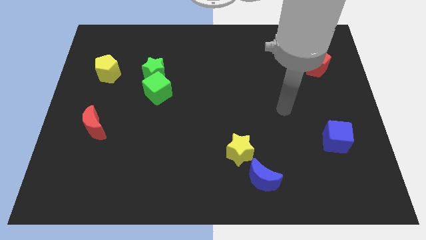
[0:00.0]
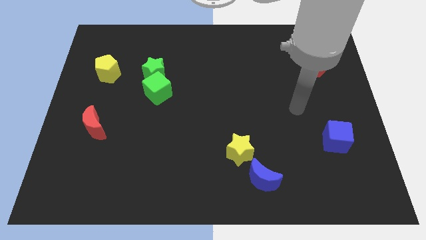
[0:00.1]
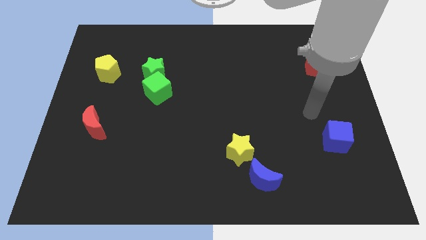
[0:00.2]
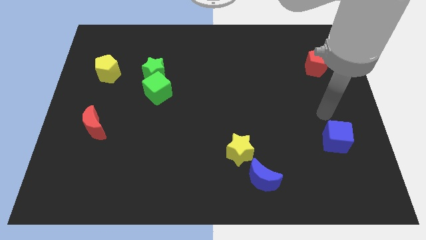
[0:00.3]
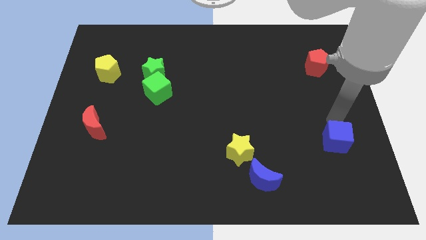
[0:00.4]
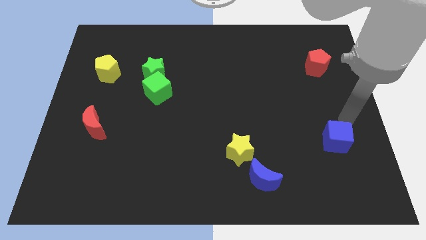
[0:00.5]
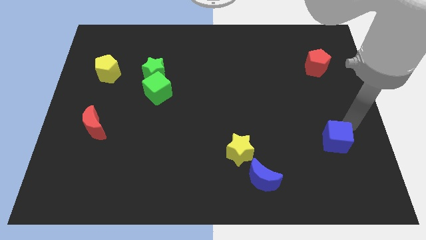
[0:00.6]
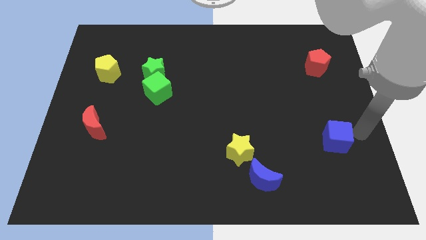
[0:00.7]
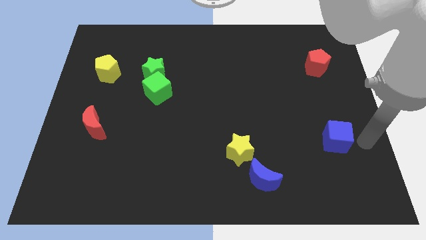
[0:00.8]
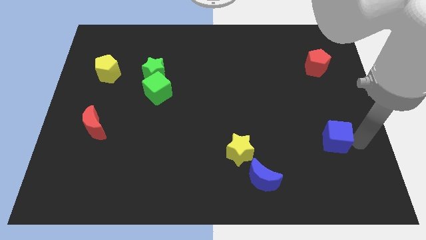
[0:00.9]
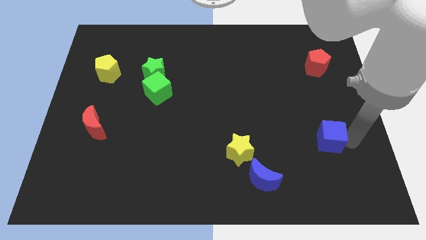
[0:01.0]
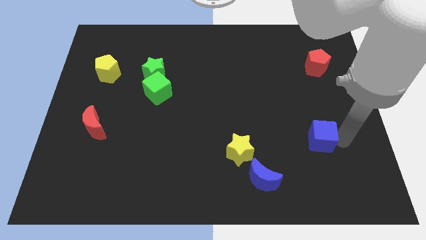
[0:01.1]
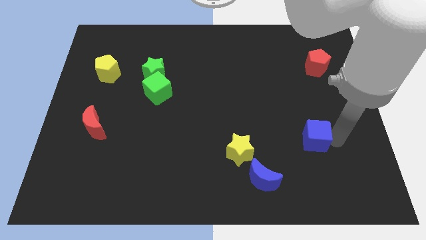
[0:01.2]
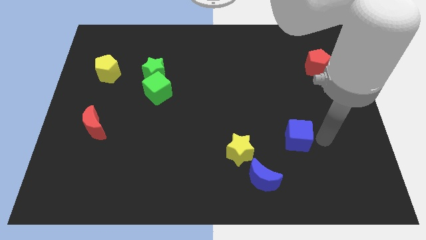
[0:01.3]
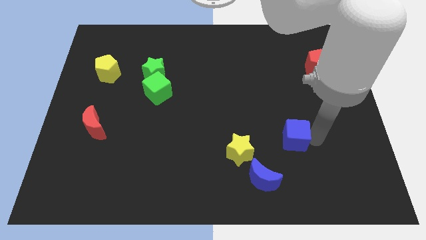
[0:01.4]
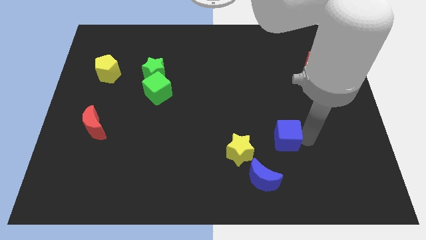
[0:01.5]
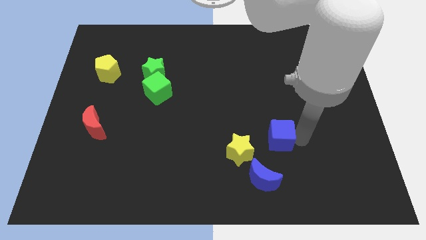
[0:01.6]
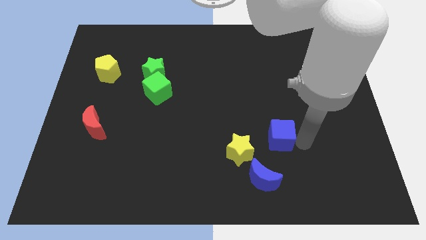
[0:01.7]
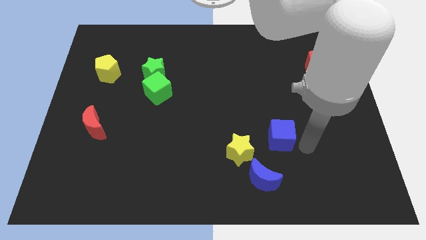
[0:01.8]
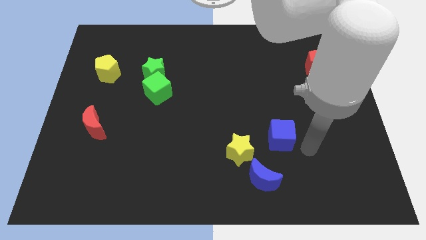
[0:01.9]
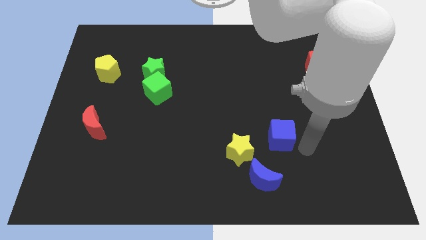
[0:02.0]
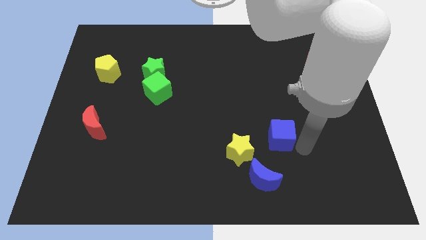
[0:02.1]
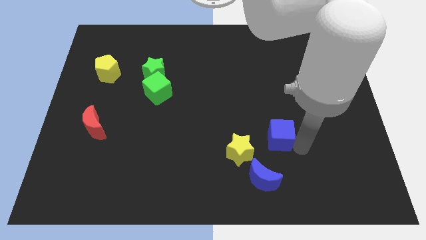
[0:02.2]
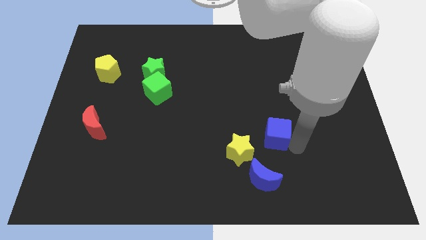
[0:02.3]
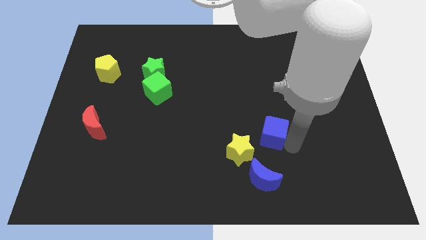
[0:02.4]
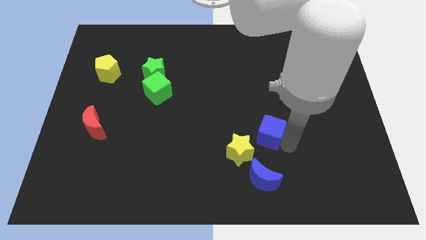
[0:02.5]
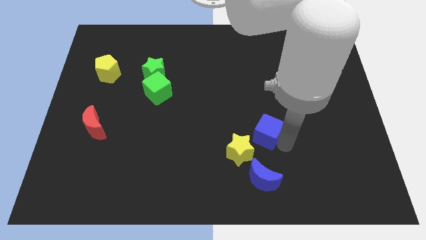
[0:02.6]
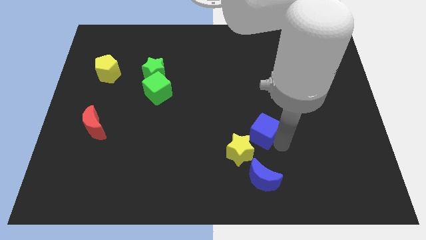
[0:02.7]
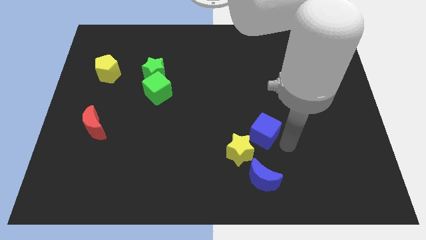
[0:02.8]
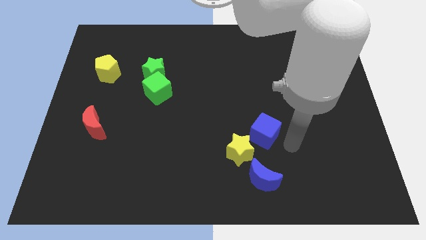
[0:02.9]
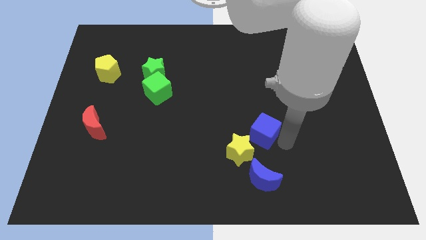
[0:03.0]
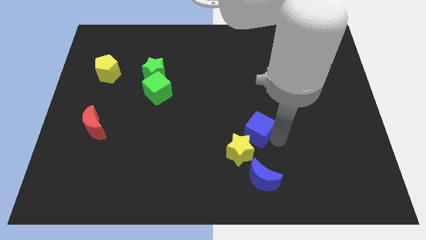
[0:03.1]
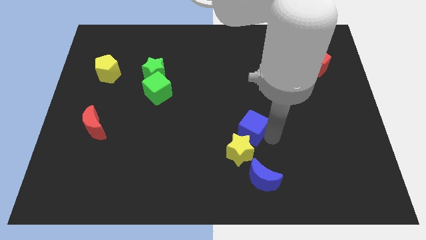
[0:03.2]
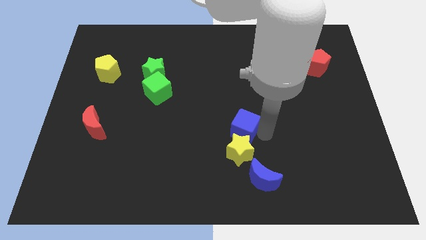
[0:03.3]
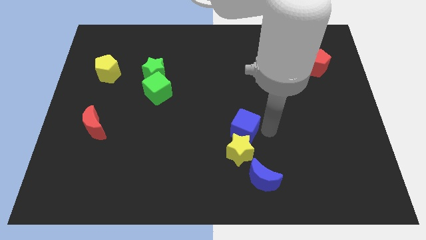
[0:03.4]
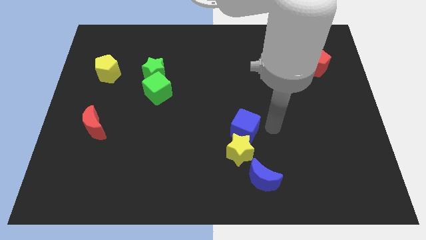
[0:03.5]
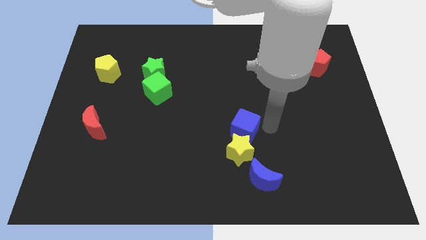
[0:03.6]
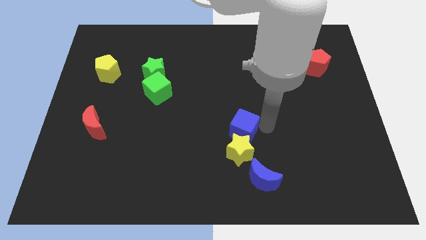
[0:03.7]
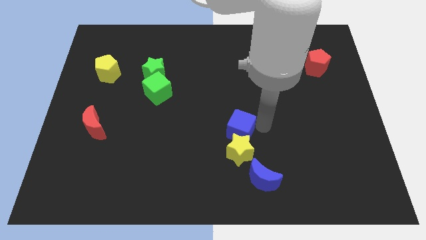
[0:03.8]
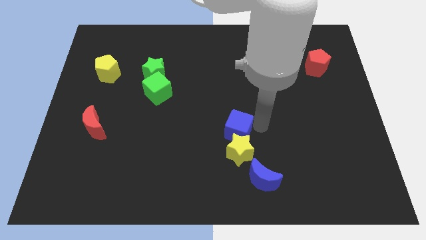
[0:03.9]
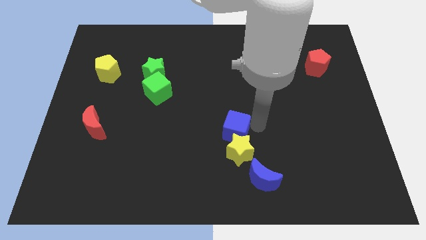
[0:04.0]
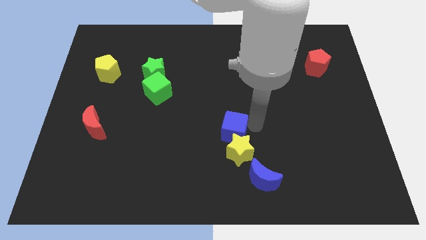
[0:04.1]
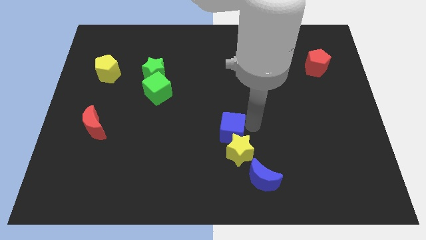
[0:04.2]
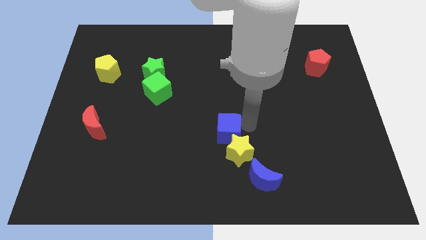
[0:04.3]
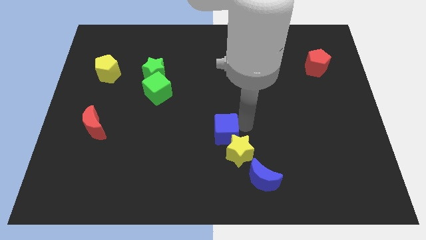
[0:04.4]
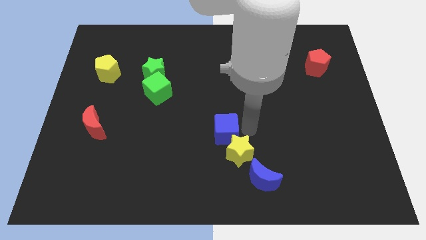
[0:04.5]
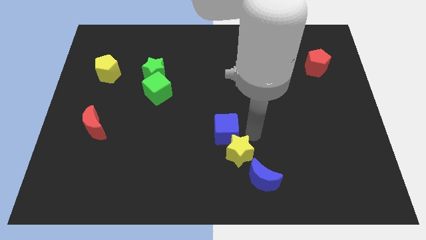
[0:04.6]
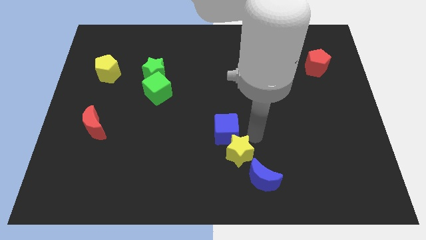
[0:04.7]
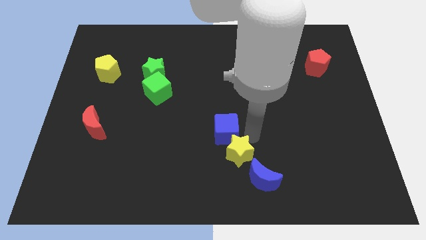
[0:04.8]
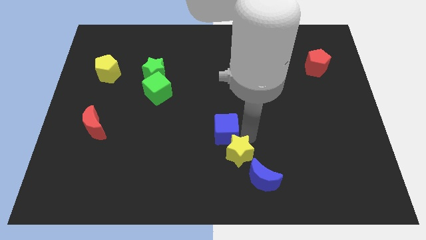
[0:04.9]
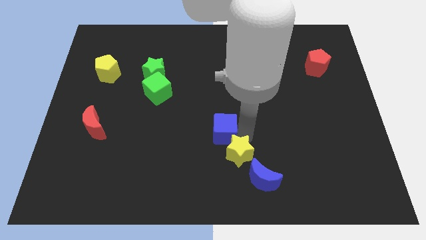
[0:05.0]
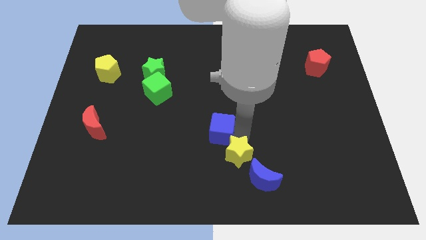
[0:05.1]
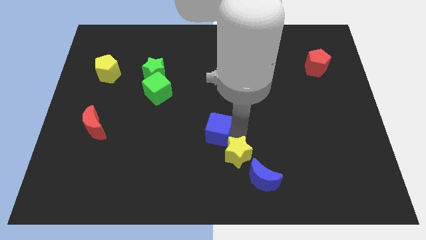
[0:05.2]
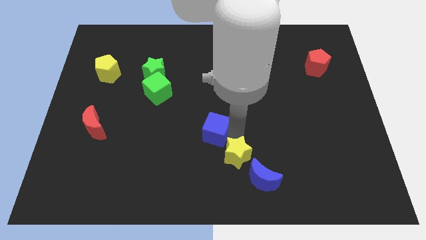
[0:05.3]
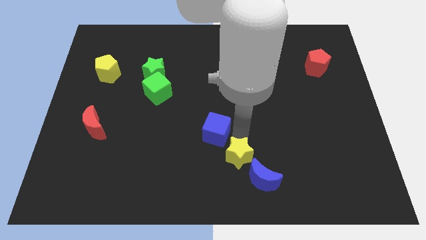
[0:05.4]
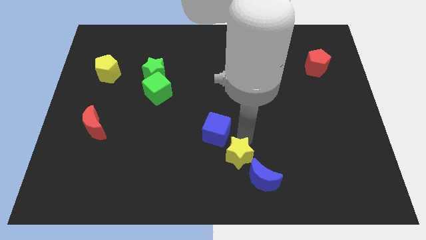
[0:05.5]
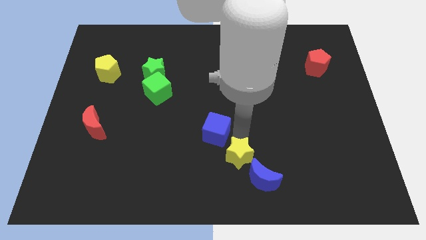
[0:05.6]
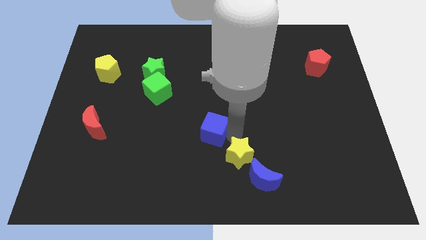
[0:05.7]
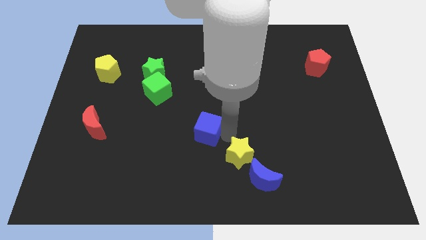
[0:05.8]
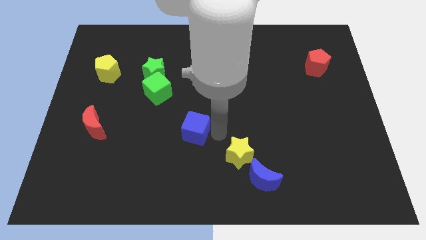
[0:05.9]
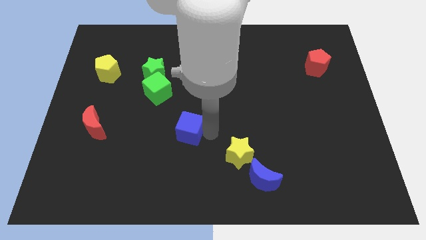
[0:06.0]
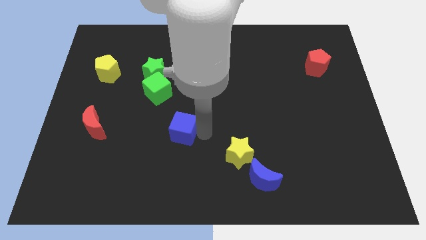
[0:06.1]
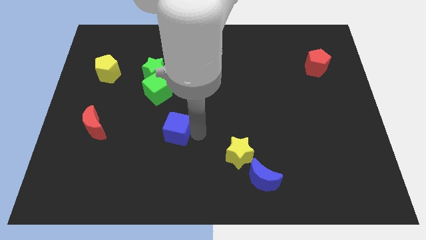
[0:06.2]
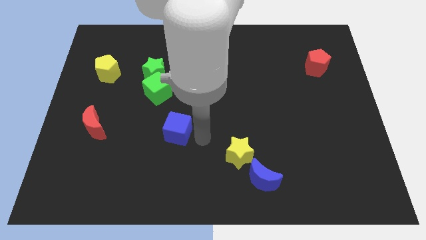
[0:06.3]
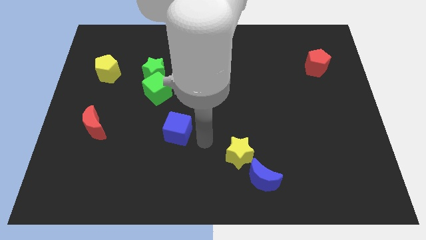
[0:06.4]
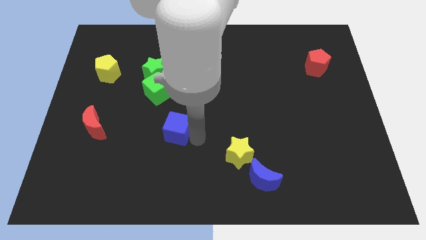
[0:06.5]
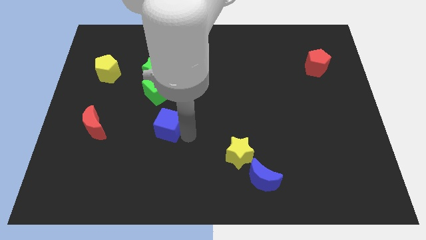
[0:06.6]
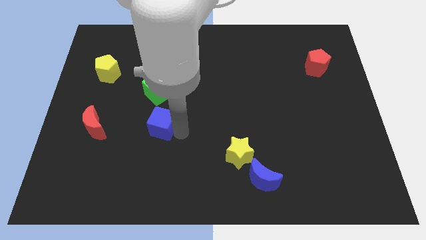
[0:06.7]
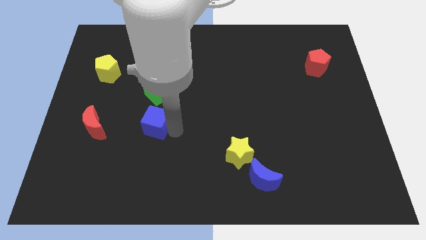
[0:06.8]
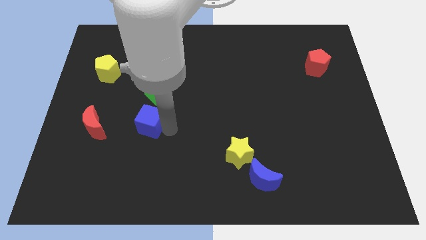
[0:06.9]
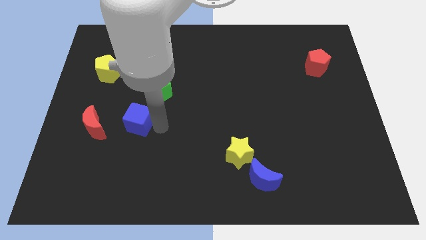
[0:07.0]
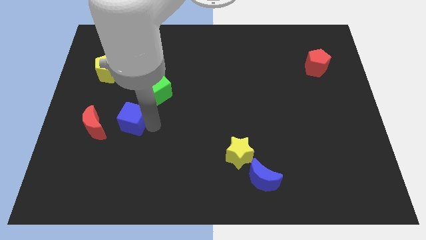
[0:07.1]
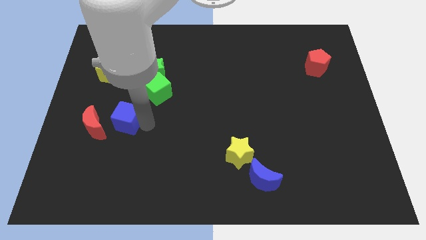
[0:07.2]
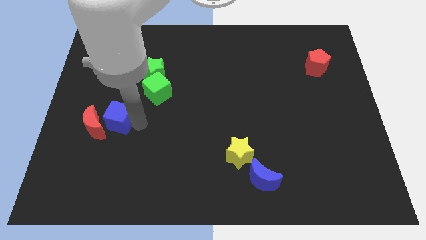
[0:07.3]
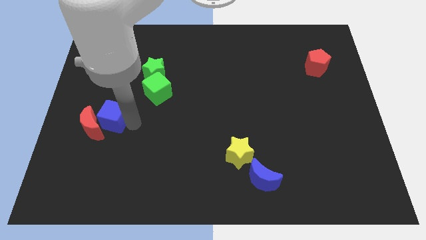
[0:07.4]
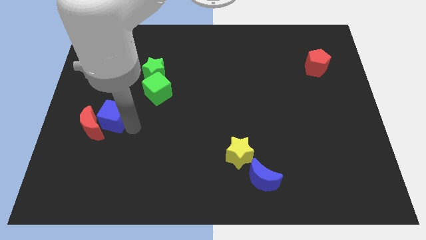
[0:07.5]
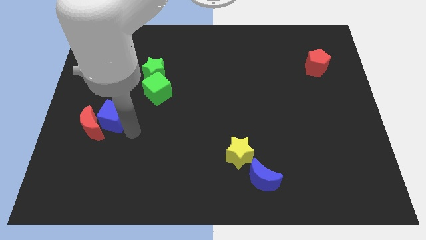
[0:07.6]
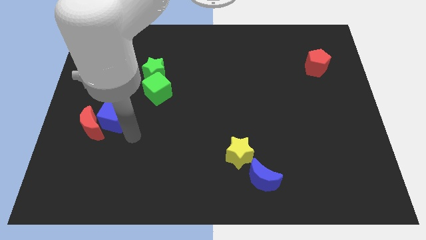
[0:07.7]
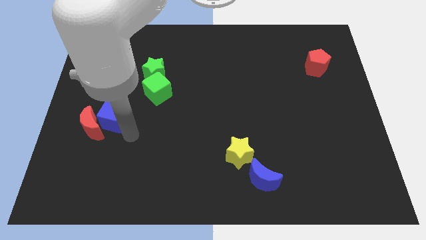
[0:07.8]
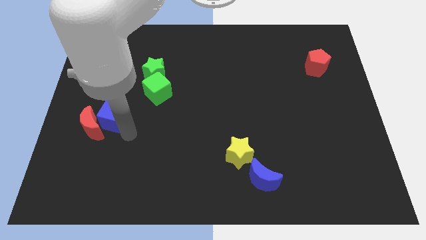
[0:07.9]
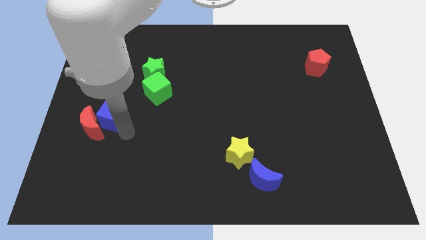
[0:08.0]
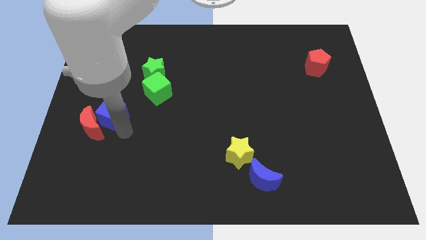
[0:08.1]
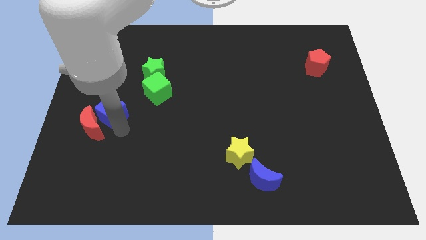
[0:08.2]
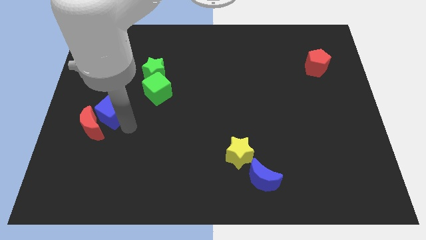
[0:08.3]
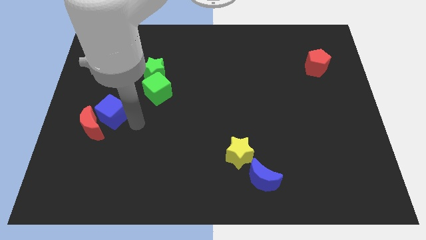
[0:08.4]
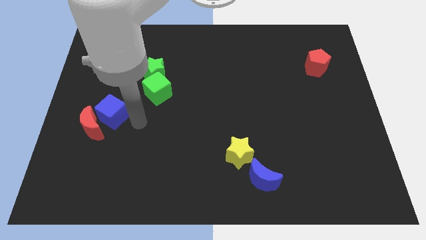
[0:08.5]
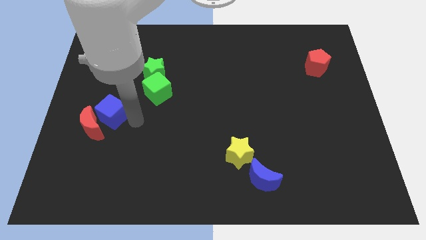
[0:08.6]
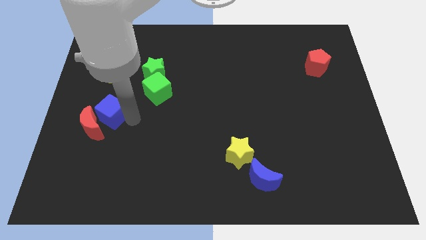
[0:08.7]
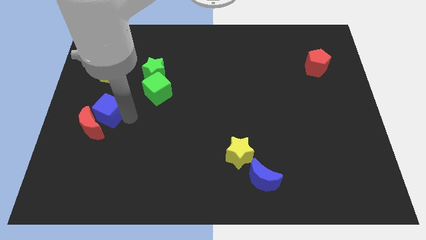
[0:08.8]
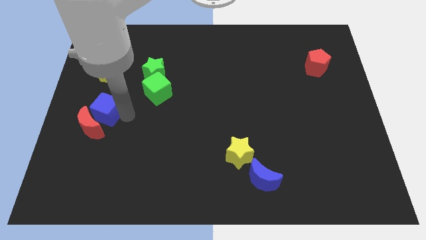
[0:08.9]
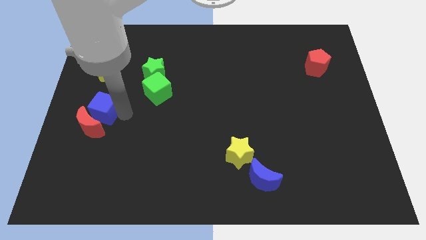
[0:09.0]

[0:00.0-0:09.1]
move the blue cube to the left side of the board
